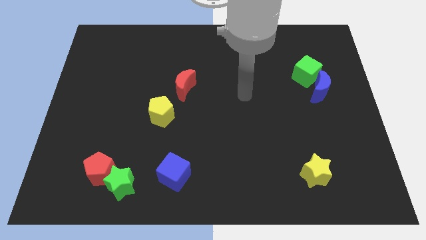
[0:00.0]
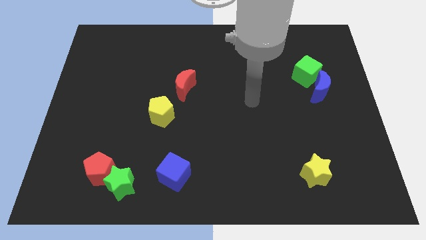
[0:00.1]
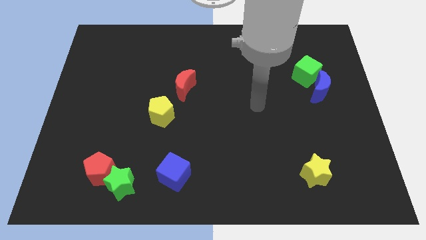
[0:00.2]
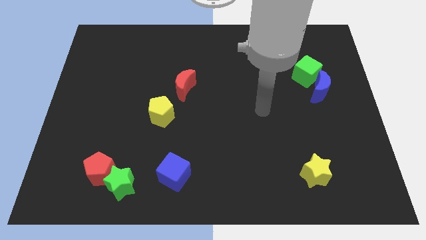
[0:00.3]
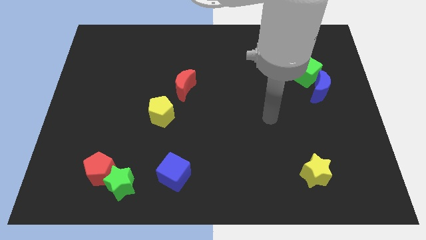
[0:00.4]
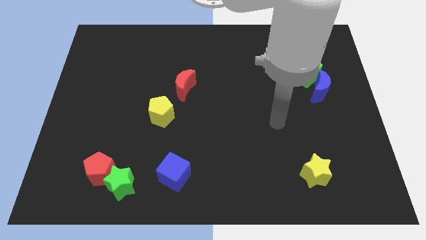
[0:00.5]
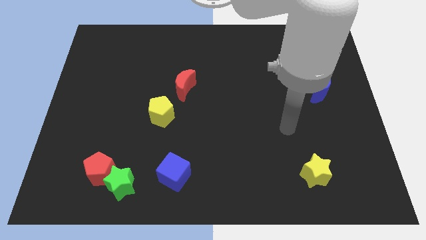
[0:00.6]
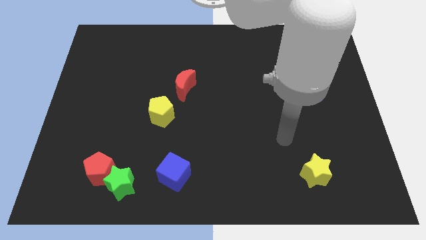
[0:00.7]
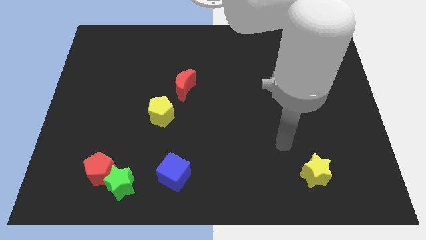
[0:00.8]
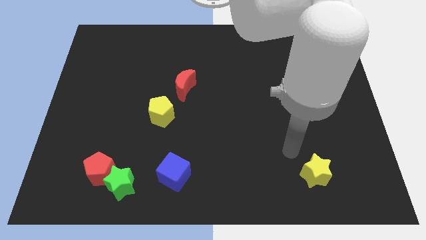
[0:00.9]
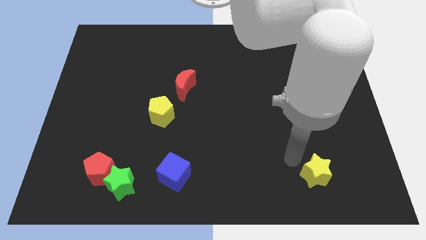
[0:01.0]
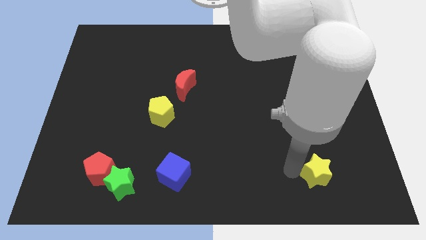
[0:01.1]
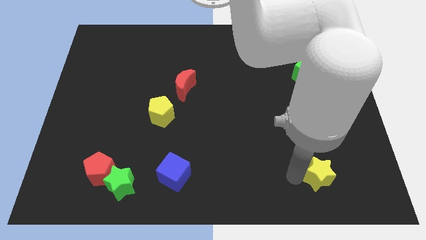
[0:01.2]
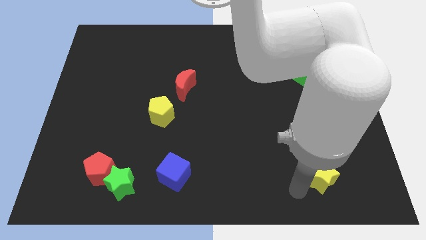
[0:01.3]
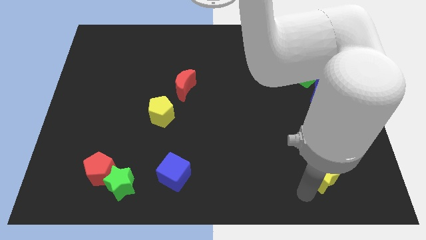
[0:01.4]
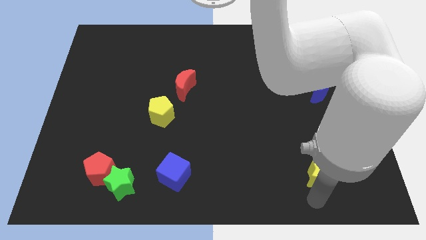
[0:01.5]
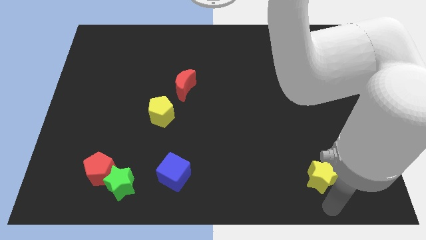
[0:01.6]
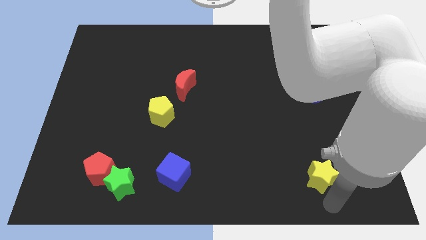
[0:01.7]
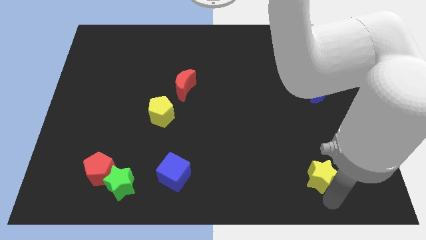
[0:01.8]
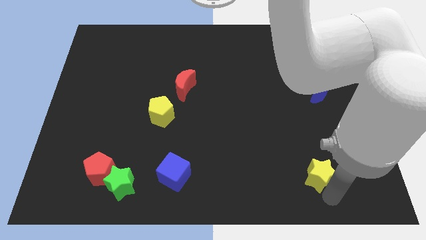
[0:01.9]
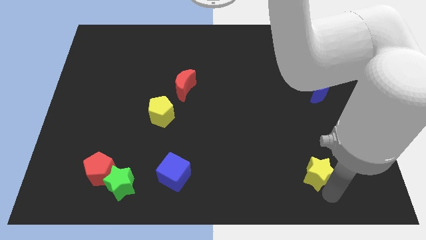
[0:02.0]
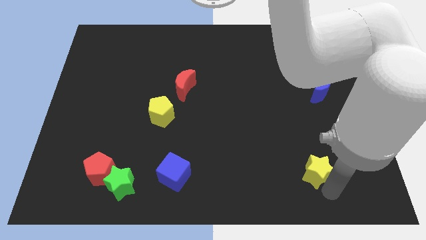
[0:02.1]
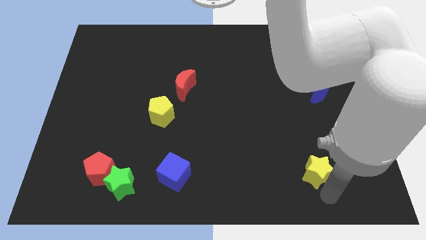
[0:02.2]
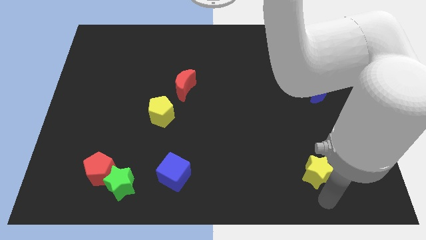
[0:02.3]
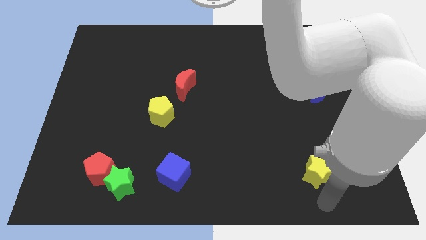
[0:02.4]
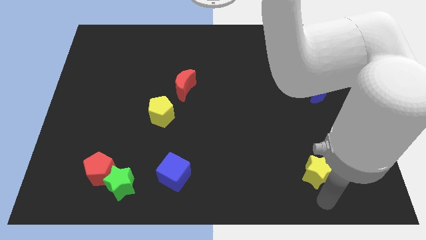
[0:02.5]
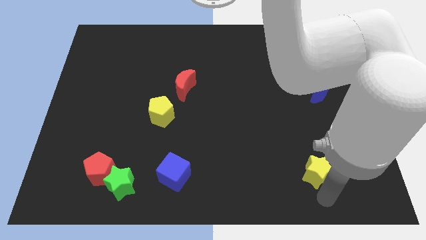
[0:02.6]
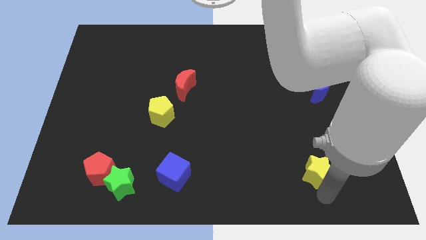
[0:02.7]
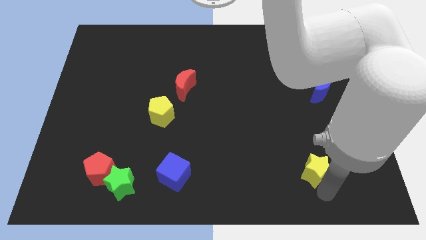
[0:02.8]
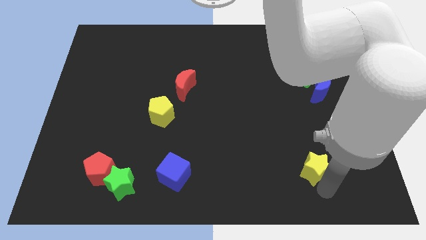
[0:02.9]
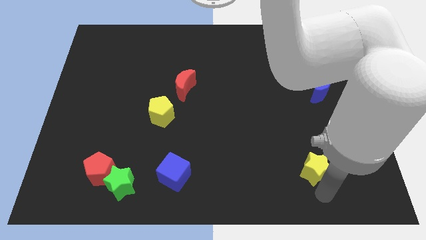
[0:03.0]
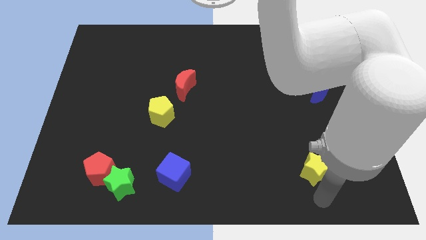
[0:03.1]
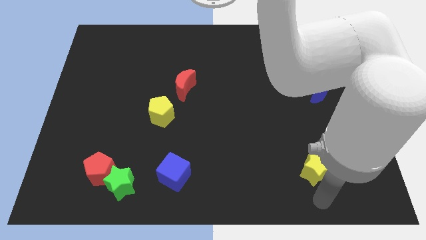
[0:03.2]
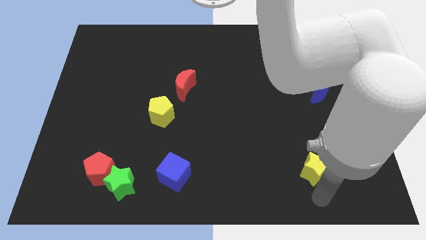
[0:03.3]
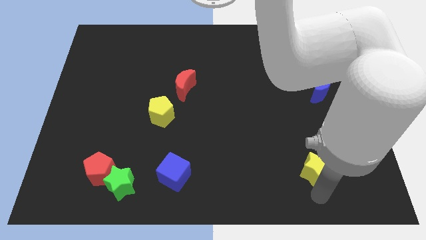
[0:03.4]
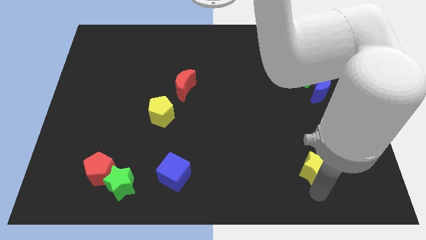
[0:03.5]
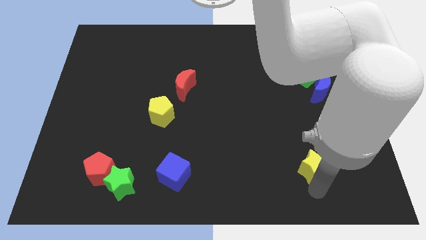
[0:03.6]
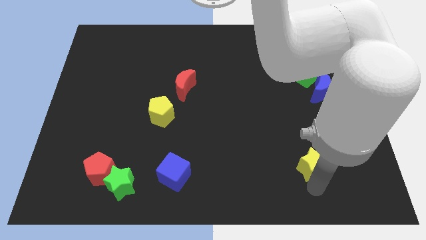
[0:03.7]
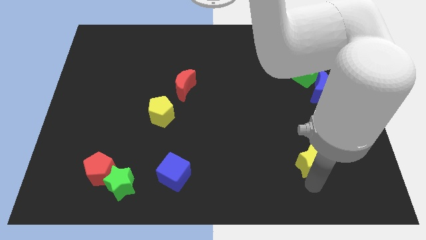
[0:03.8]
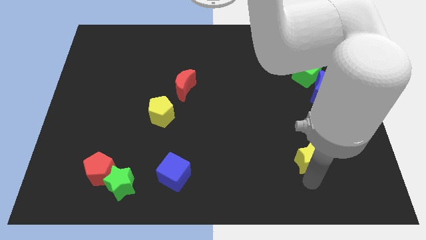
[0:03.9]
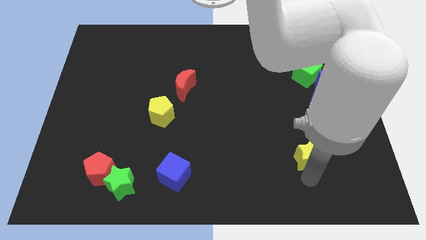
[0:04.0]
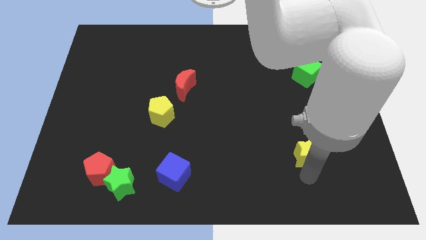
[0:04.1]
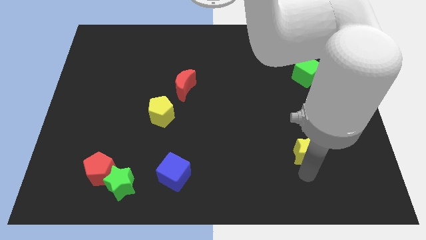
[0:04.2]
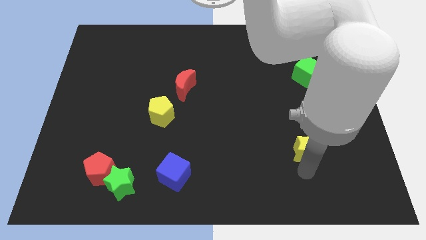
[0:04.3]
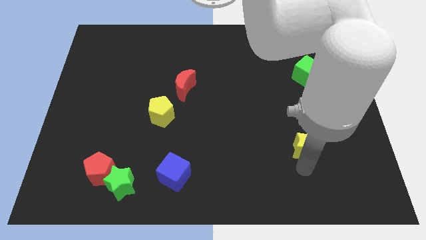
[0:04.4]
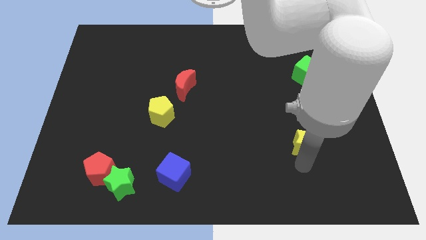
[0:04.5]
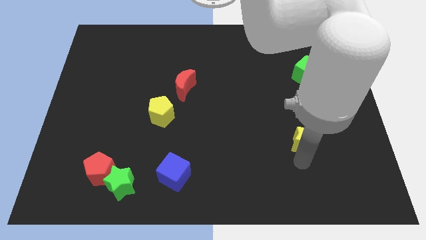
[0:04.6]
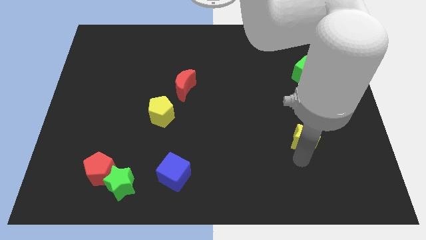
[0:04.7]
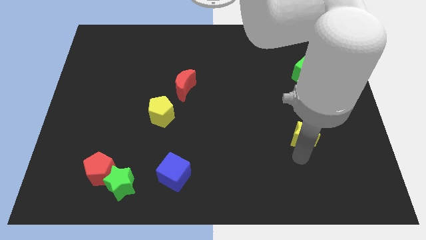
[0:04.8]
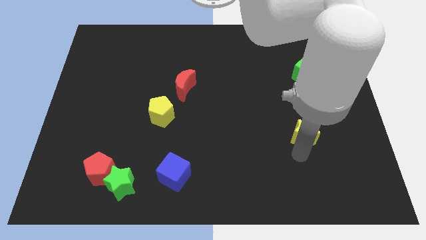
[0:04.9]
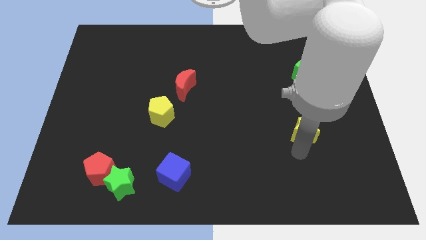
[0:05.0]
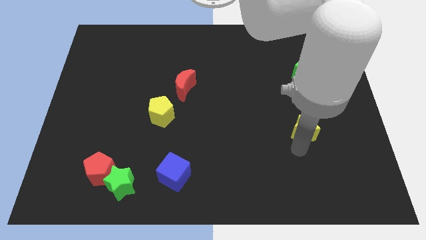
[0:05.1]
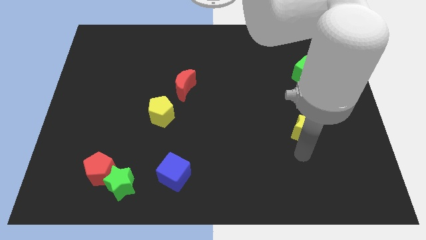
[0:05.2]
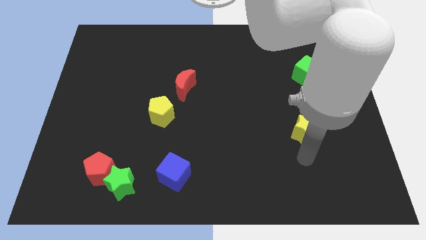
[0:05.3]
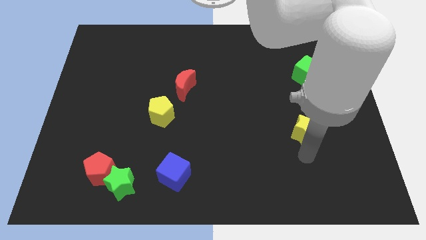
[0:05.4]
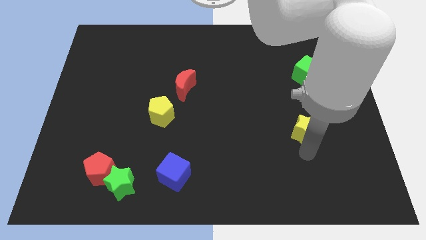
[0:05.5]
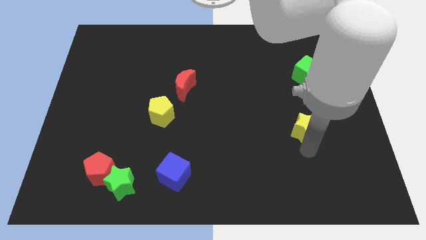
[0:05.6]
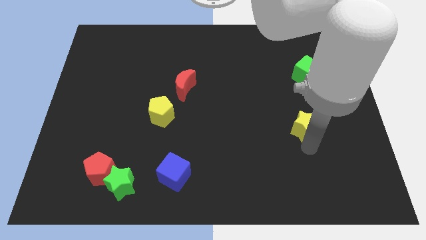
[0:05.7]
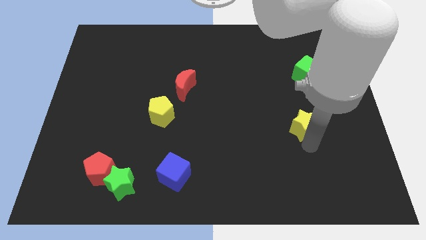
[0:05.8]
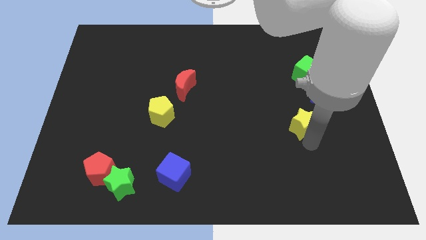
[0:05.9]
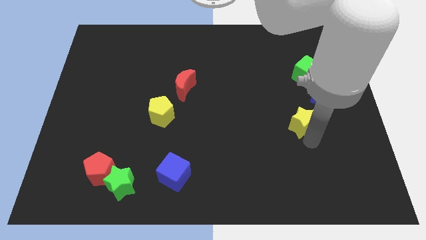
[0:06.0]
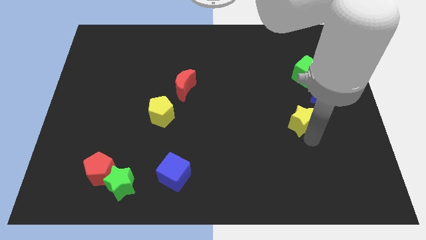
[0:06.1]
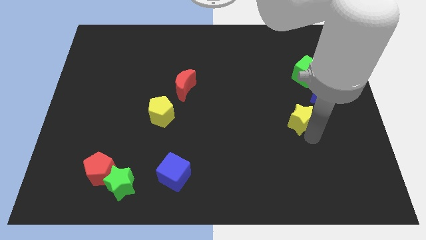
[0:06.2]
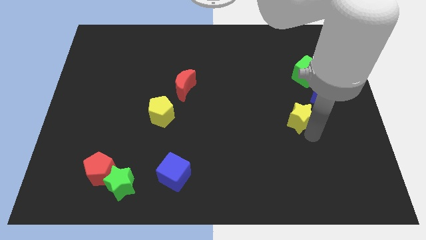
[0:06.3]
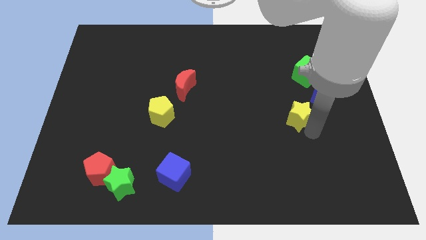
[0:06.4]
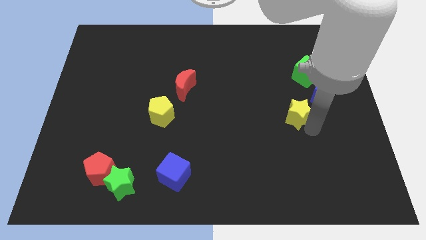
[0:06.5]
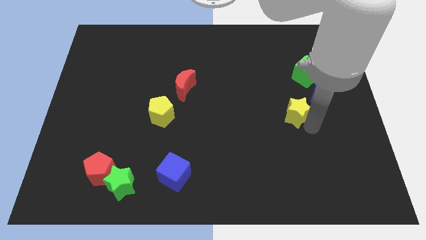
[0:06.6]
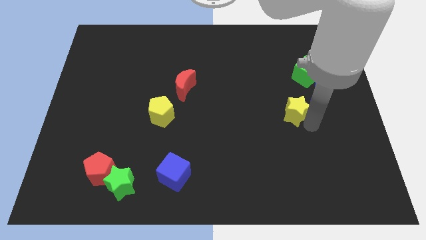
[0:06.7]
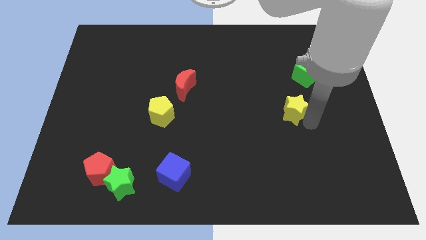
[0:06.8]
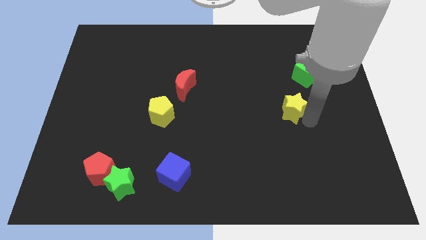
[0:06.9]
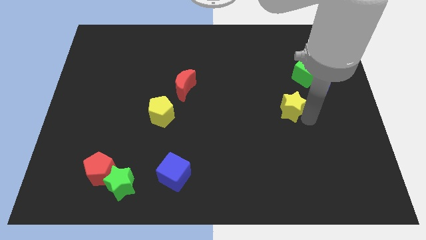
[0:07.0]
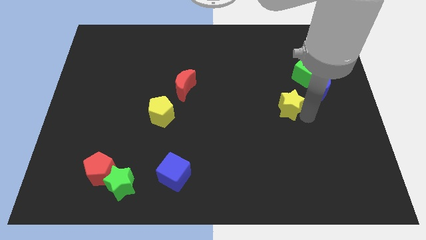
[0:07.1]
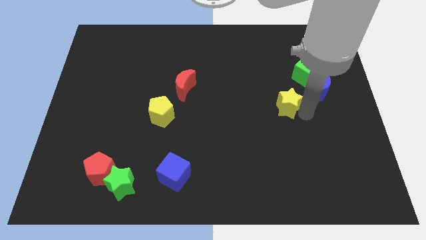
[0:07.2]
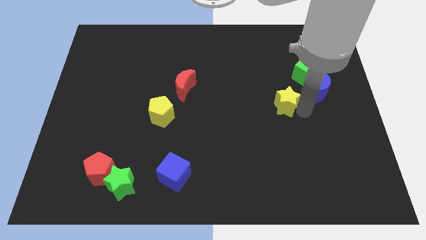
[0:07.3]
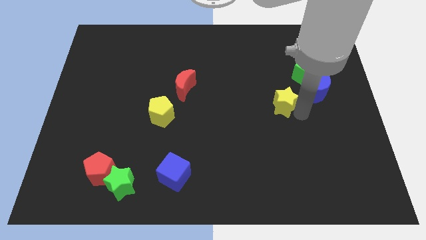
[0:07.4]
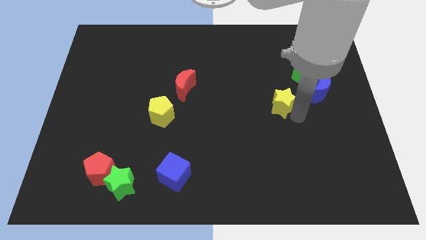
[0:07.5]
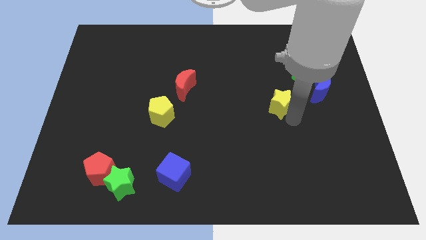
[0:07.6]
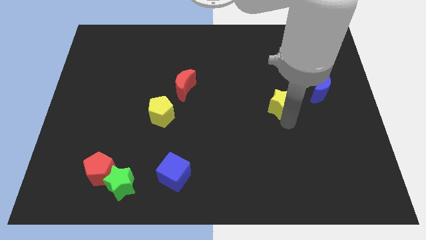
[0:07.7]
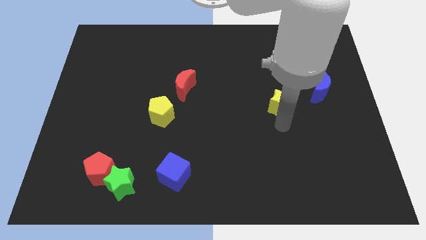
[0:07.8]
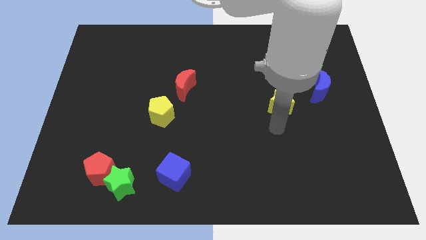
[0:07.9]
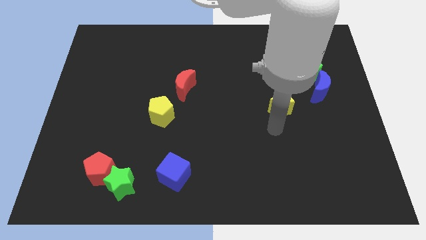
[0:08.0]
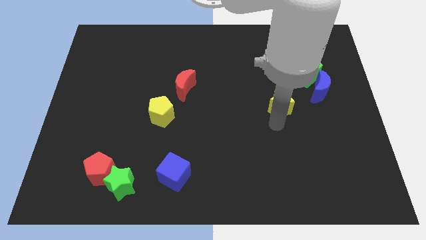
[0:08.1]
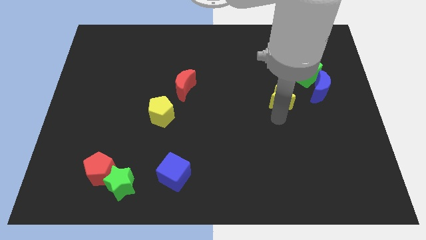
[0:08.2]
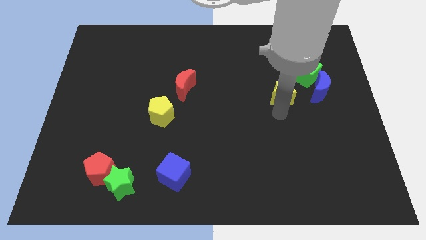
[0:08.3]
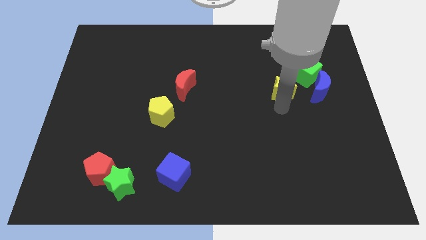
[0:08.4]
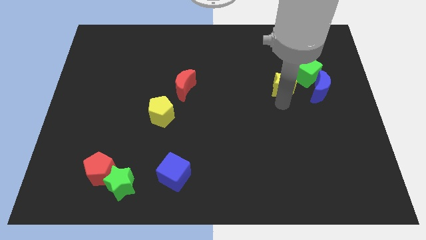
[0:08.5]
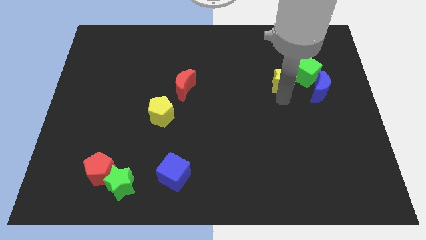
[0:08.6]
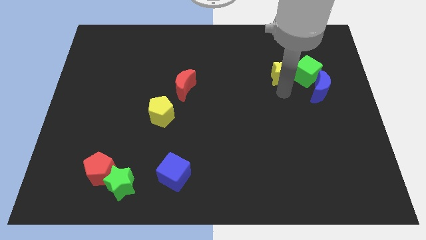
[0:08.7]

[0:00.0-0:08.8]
slide the yellow star to the top left side of the green cube
